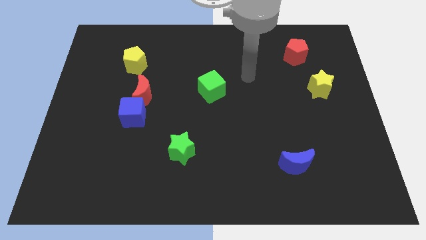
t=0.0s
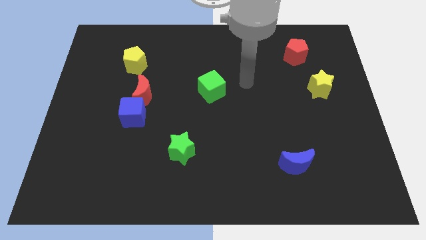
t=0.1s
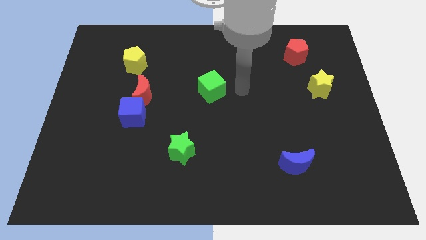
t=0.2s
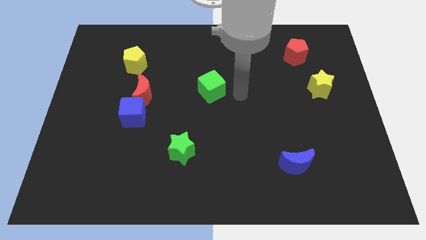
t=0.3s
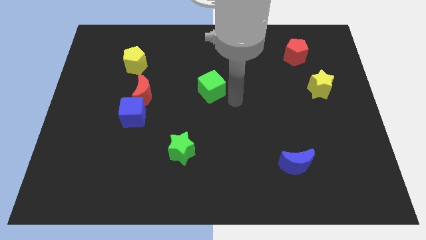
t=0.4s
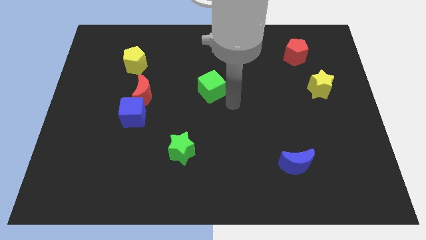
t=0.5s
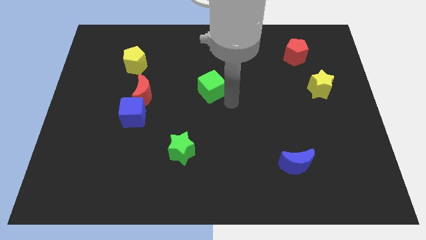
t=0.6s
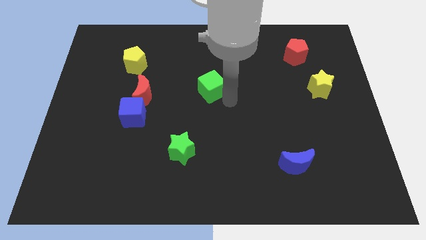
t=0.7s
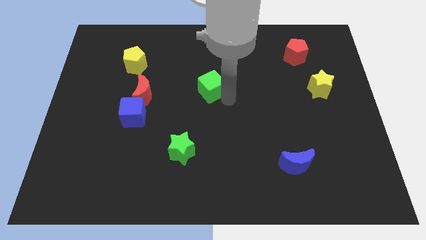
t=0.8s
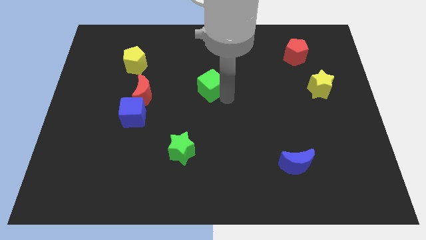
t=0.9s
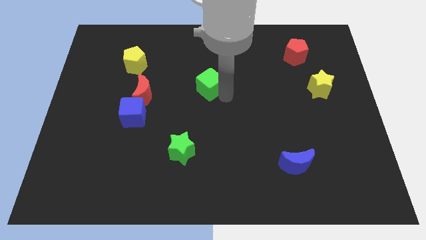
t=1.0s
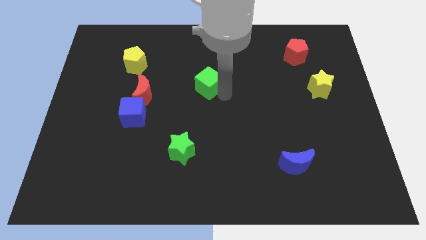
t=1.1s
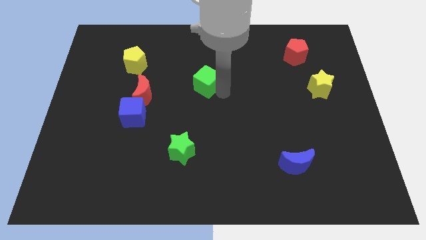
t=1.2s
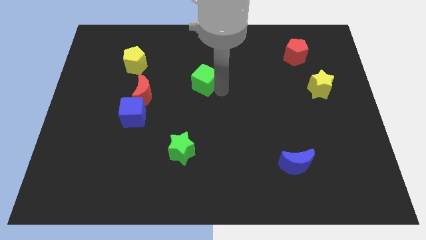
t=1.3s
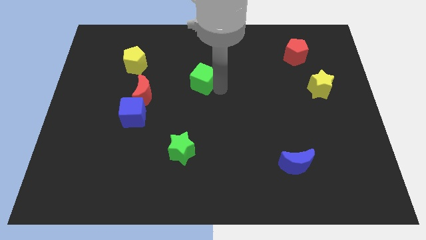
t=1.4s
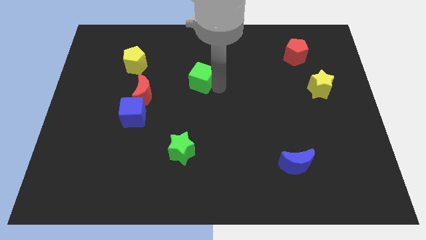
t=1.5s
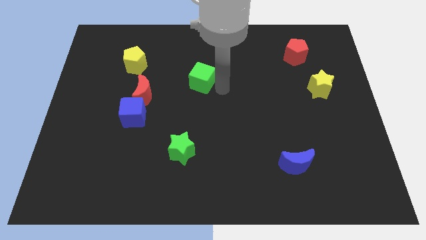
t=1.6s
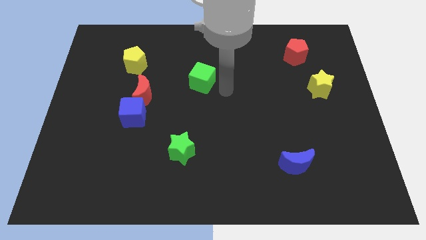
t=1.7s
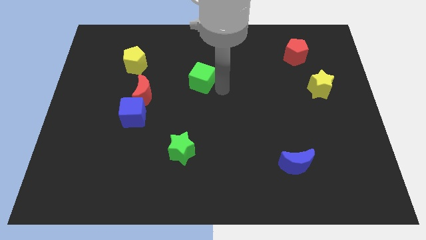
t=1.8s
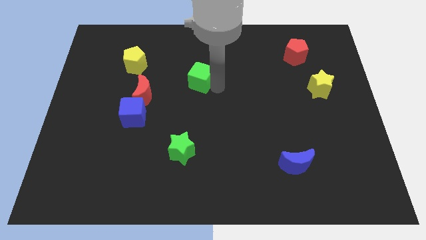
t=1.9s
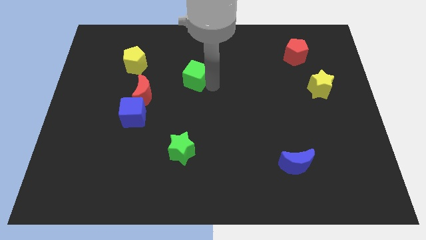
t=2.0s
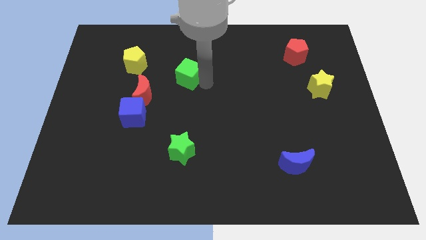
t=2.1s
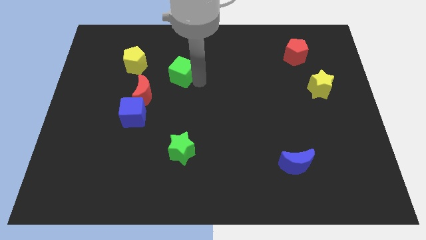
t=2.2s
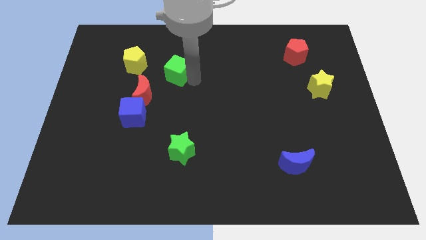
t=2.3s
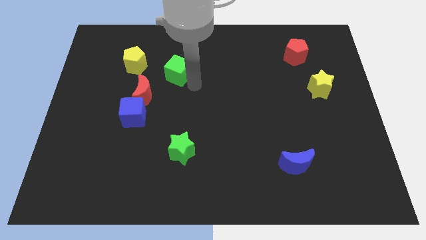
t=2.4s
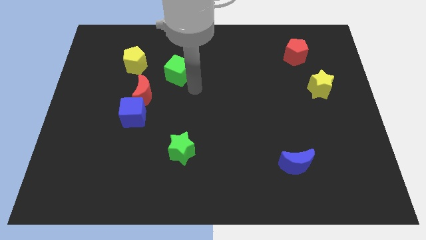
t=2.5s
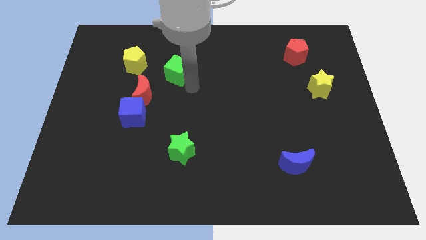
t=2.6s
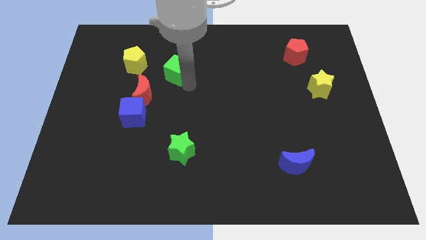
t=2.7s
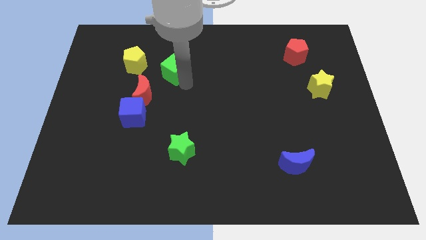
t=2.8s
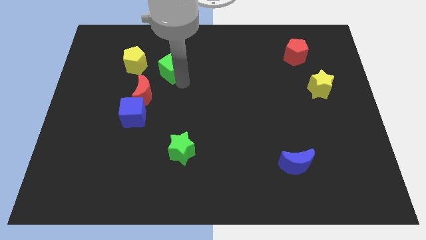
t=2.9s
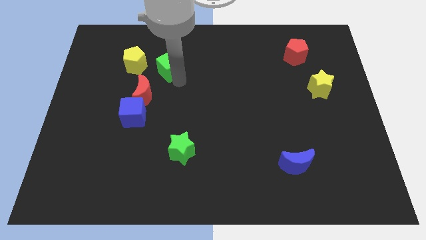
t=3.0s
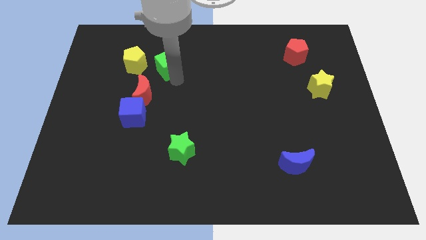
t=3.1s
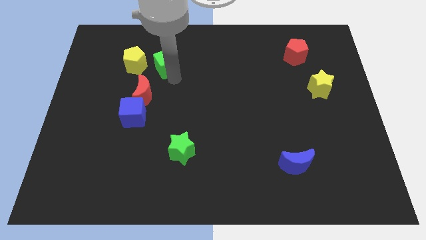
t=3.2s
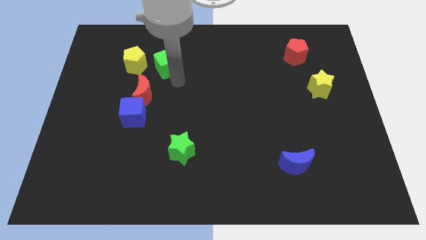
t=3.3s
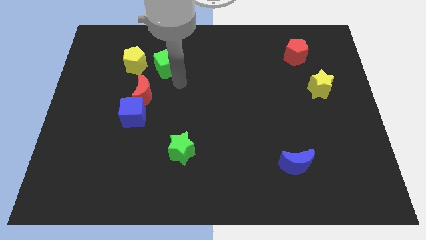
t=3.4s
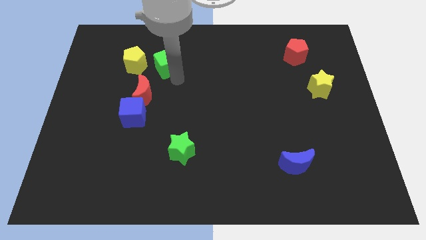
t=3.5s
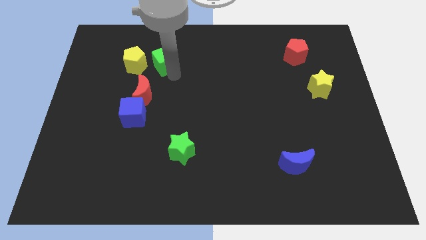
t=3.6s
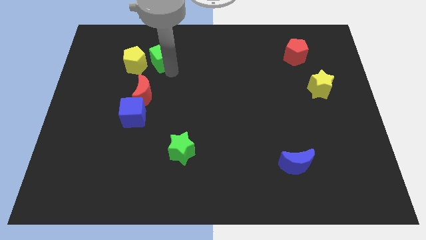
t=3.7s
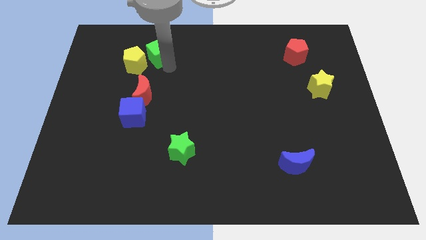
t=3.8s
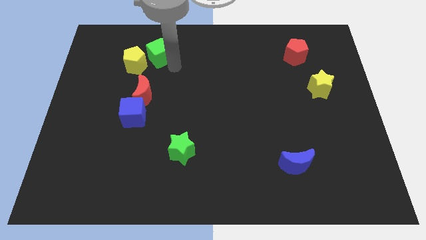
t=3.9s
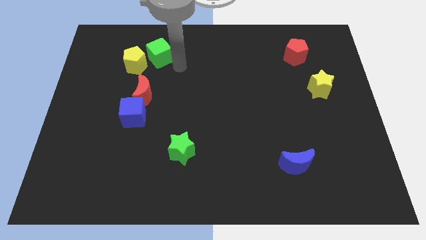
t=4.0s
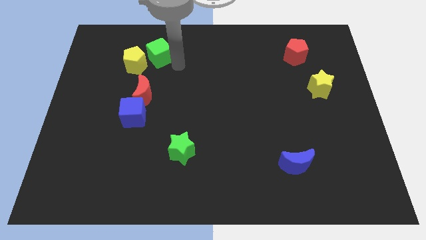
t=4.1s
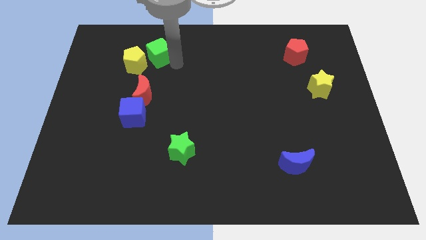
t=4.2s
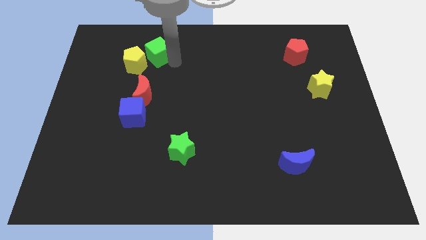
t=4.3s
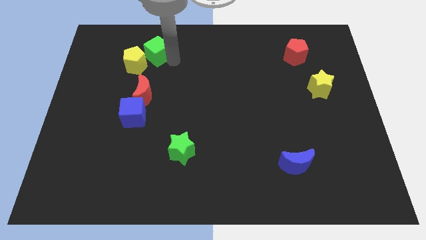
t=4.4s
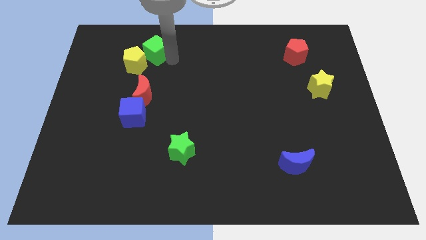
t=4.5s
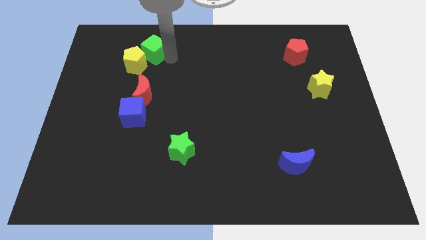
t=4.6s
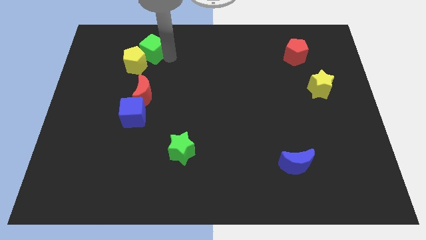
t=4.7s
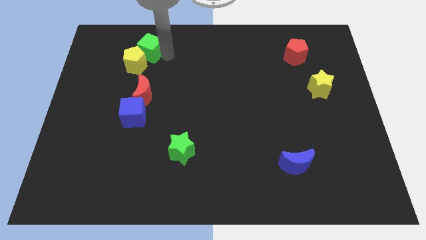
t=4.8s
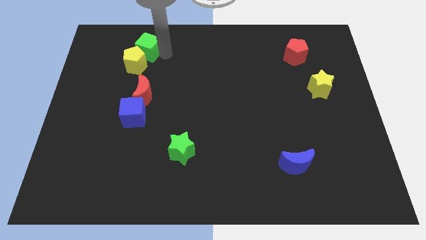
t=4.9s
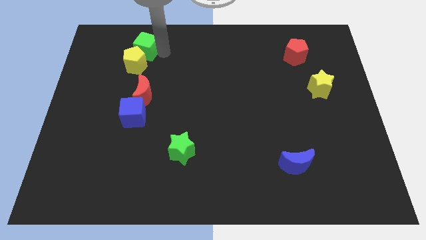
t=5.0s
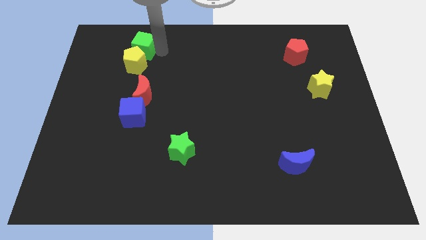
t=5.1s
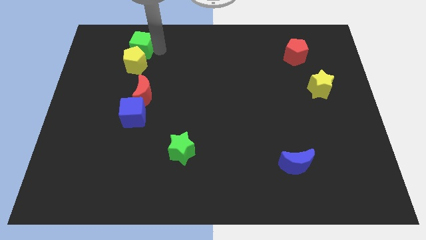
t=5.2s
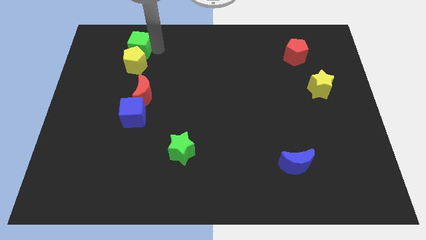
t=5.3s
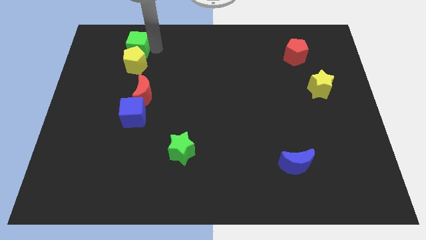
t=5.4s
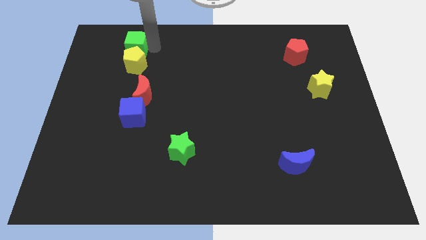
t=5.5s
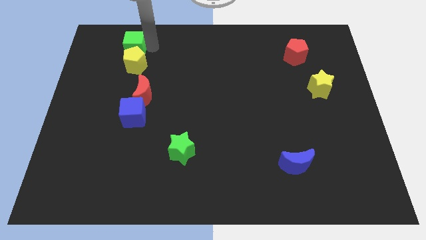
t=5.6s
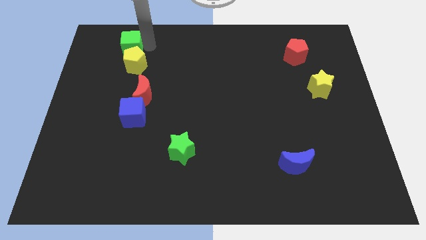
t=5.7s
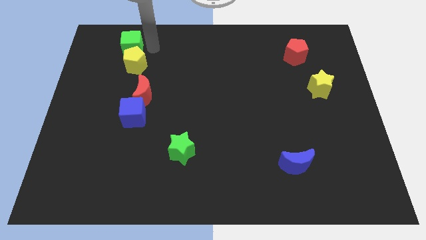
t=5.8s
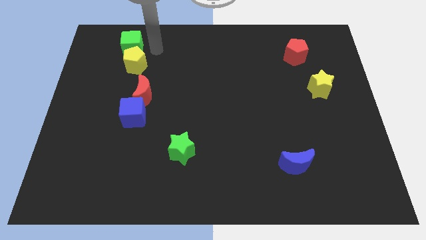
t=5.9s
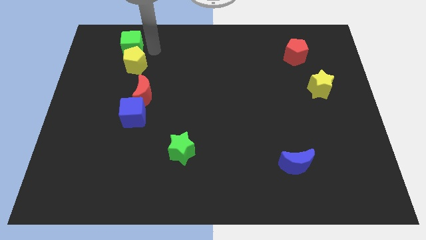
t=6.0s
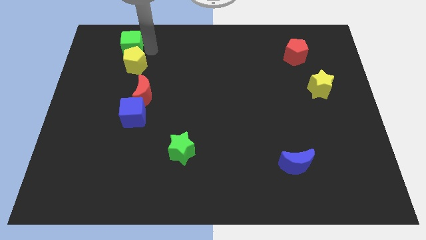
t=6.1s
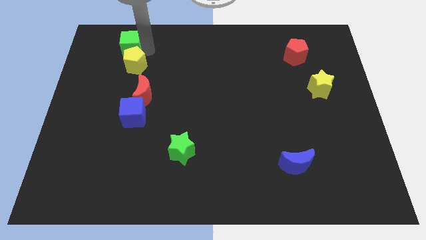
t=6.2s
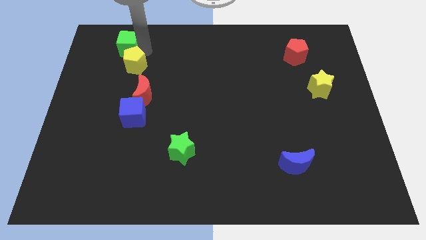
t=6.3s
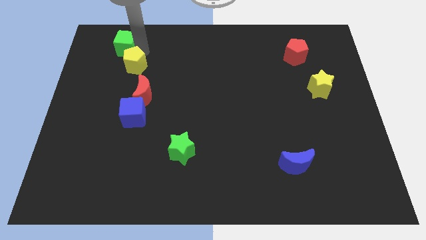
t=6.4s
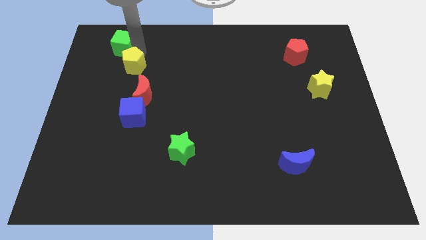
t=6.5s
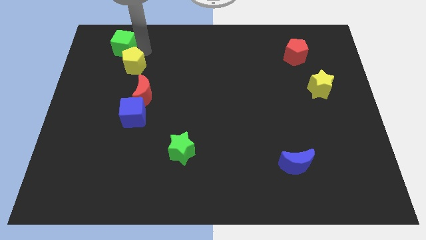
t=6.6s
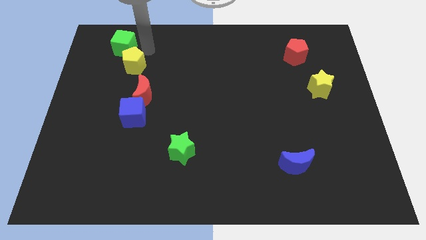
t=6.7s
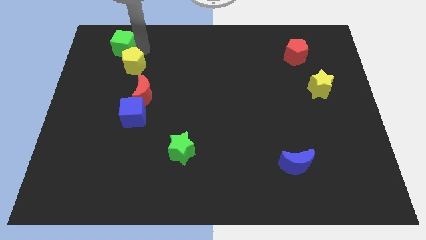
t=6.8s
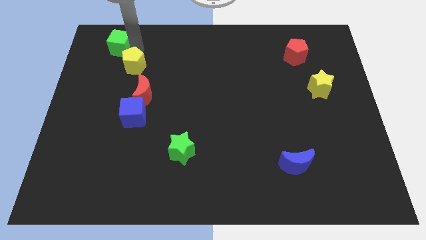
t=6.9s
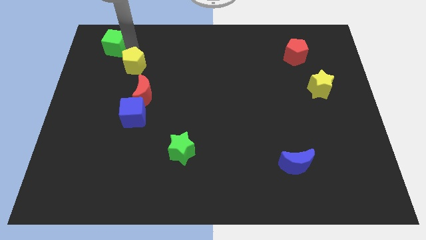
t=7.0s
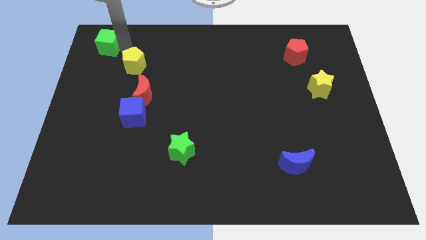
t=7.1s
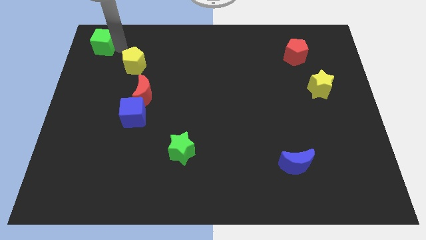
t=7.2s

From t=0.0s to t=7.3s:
push the green cube to the top left of the board
